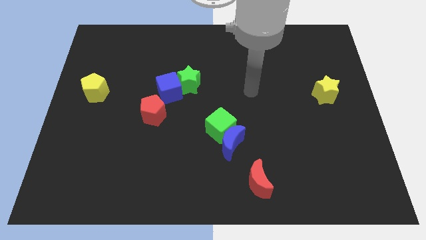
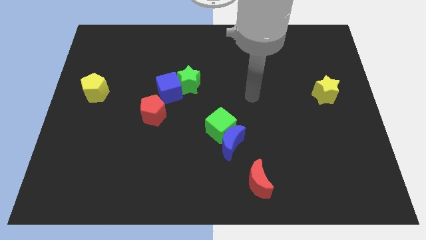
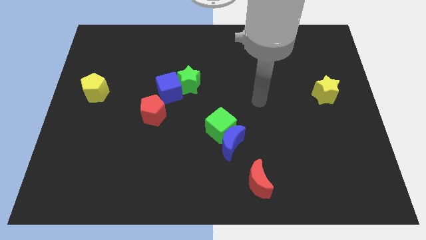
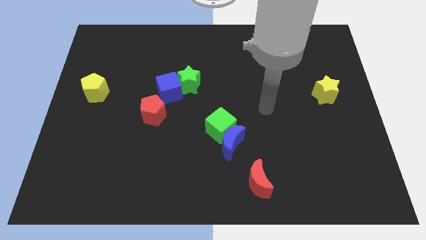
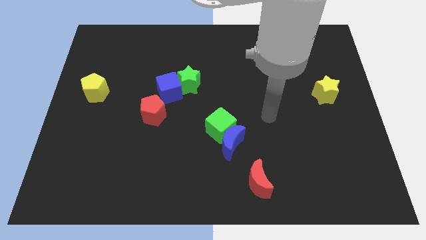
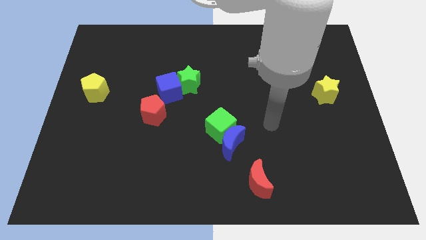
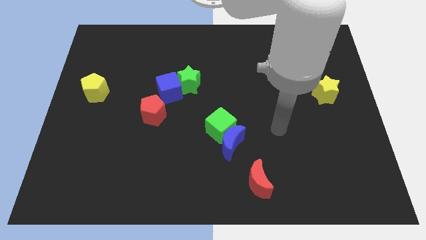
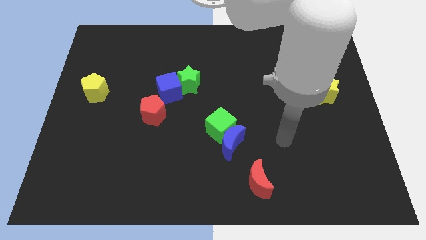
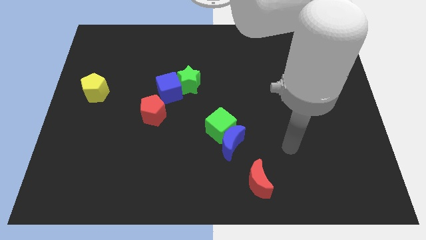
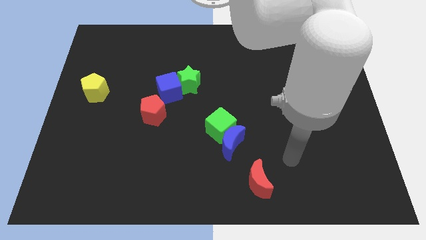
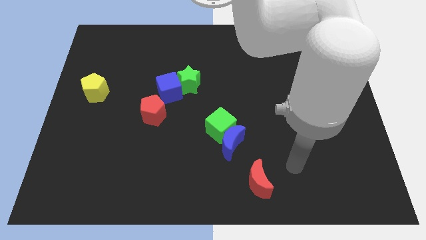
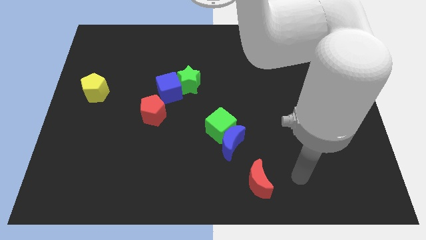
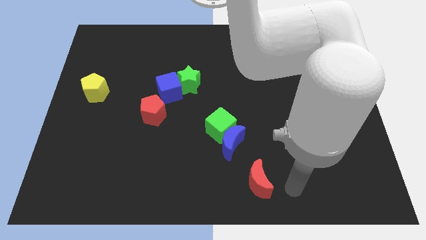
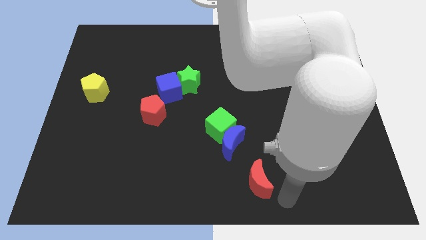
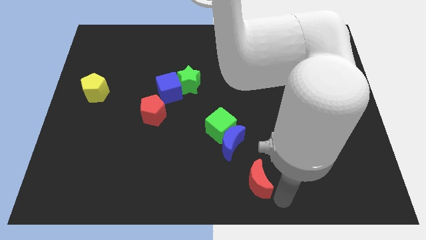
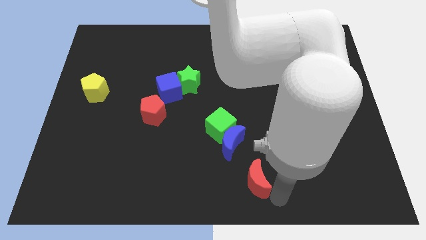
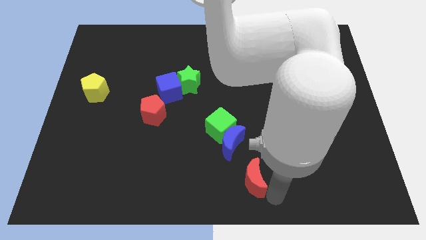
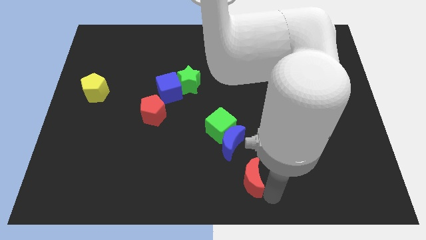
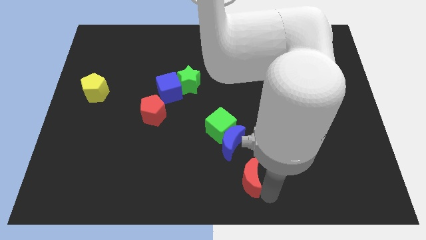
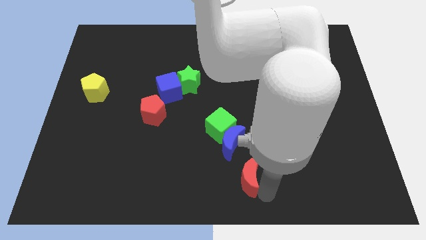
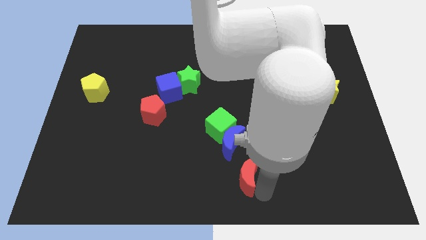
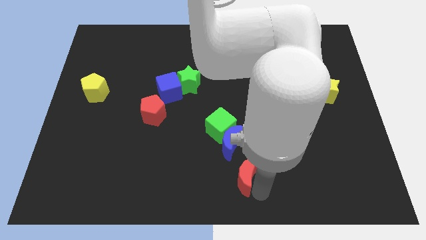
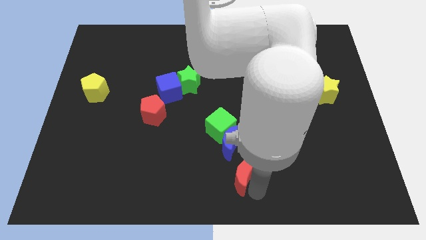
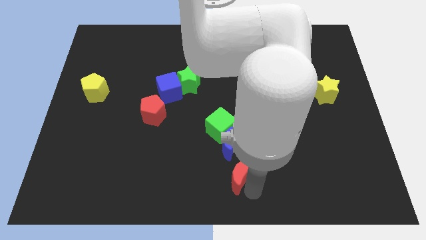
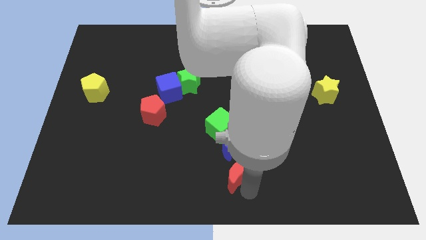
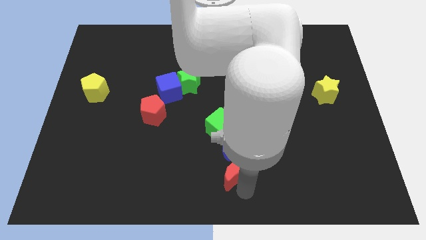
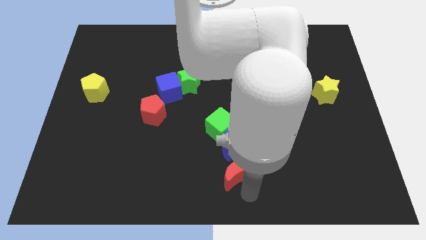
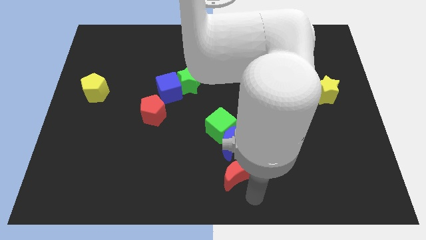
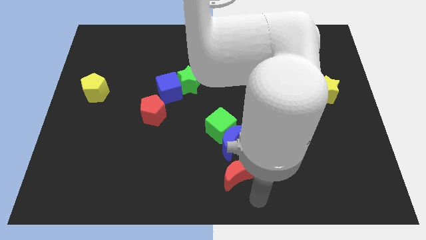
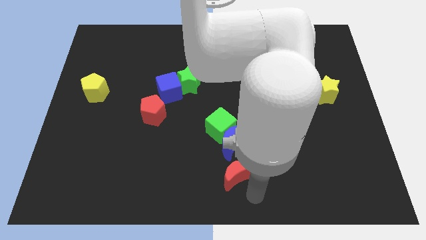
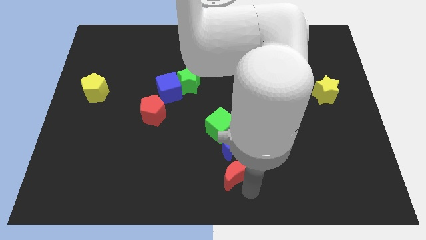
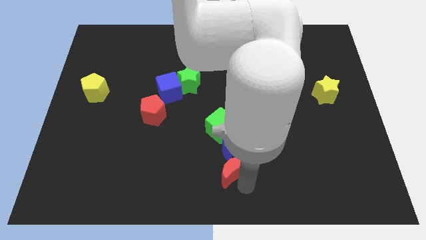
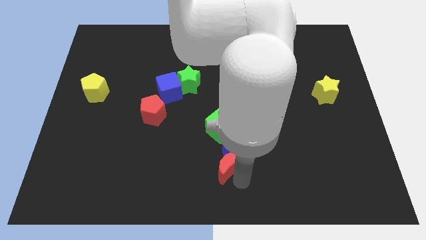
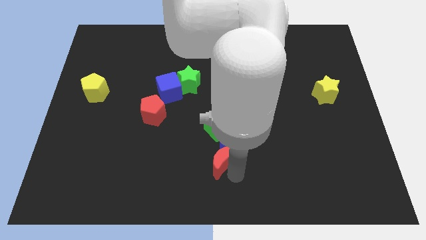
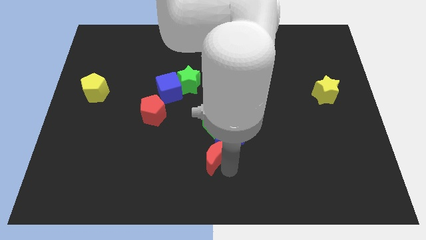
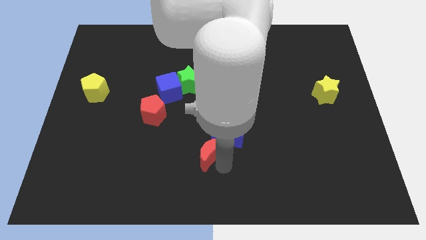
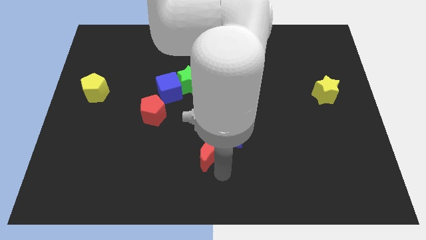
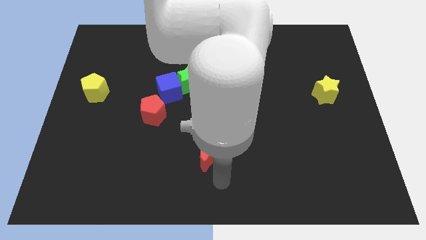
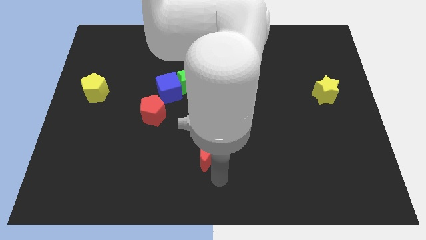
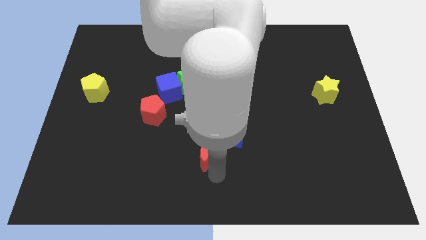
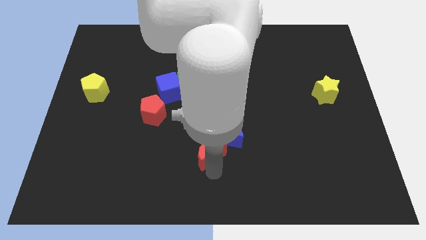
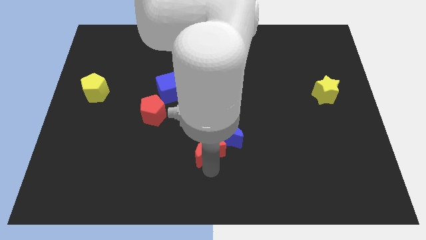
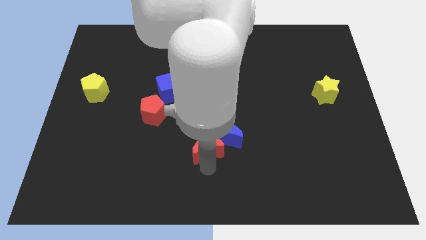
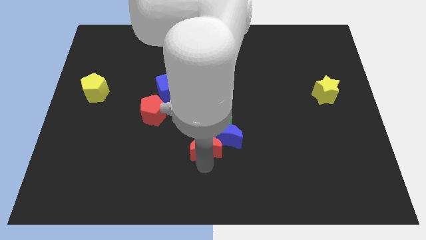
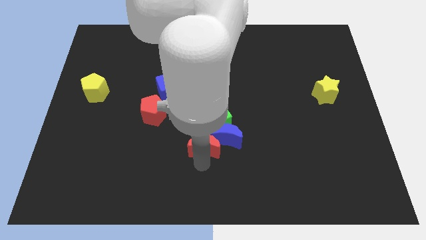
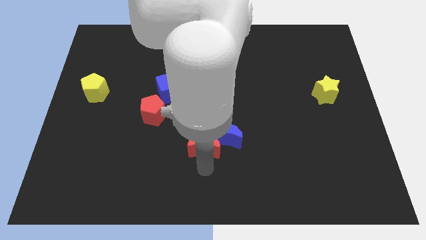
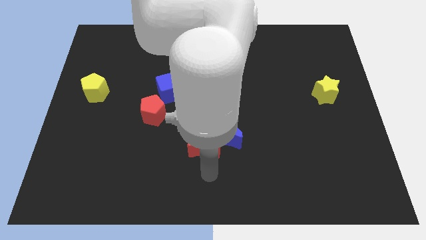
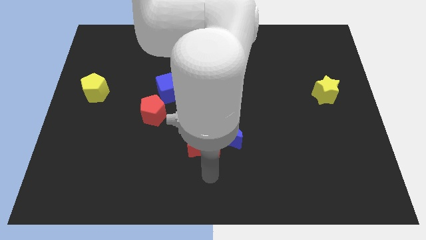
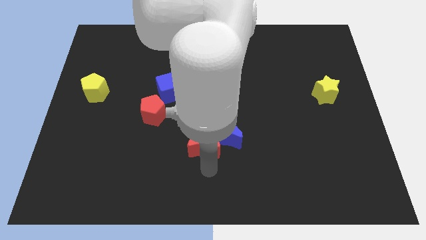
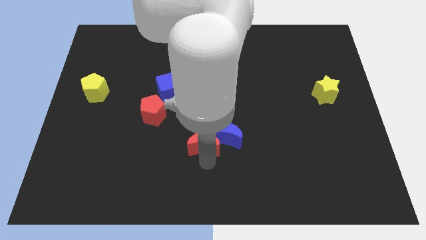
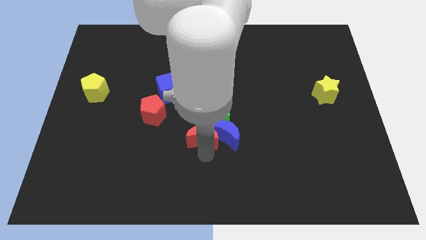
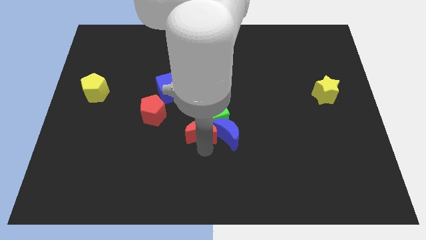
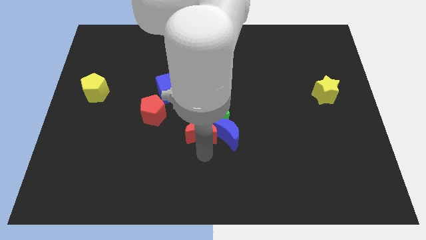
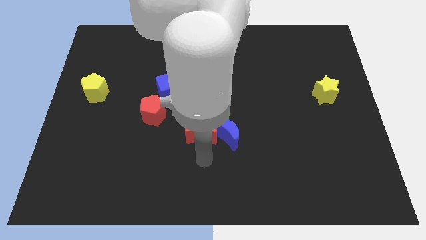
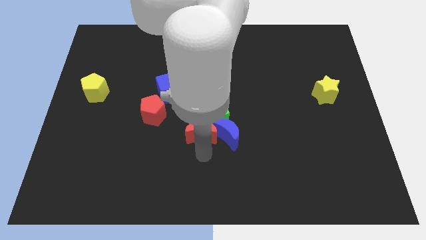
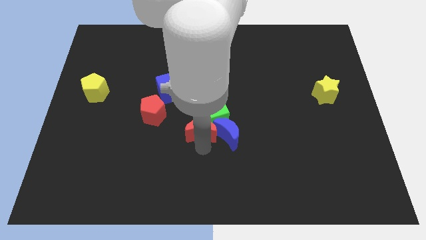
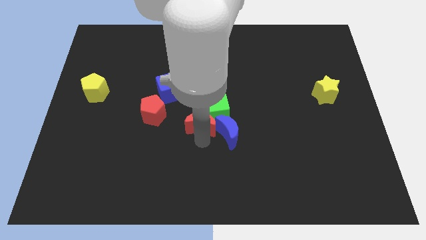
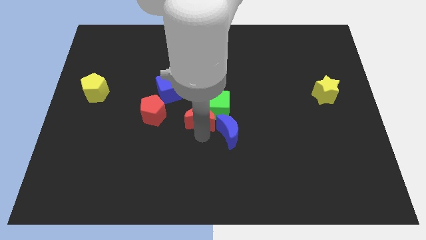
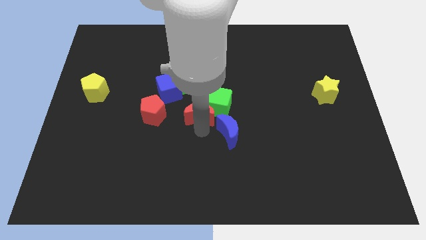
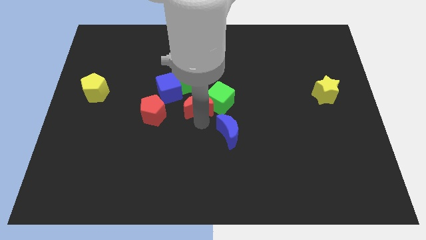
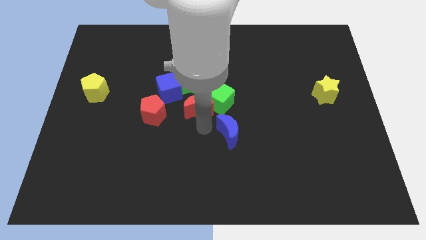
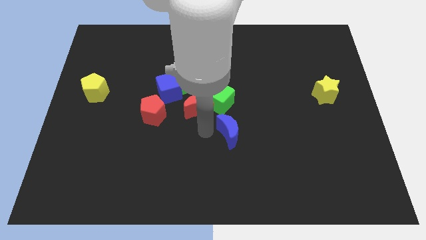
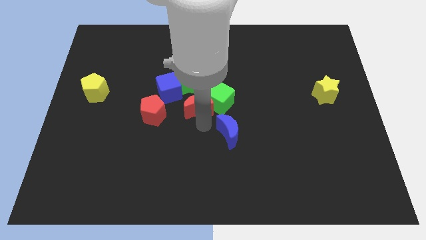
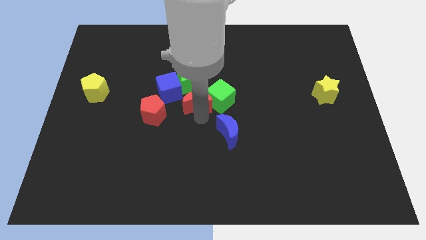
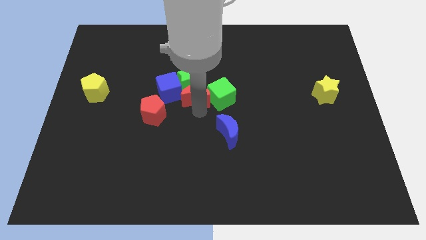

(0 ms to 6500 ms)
put the red moon close to the green star
